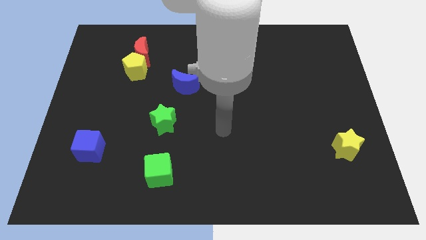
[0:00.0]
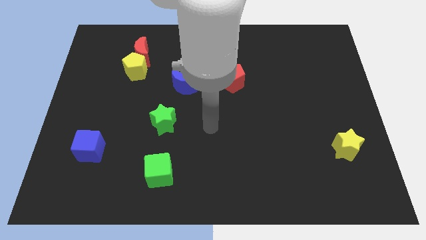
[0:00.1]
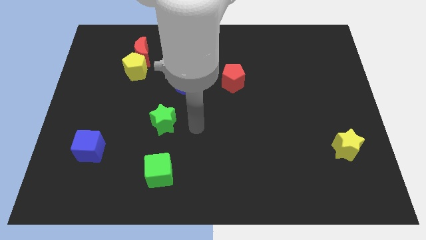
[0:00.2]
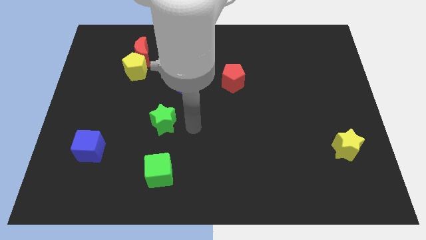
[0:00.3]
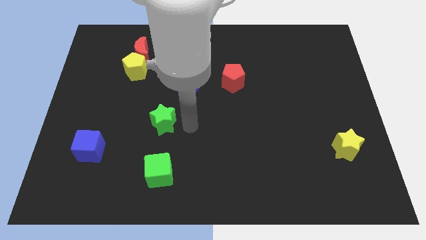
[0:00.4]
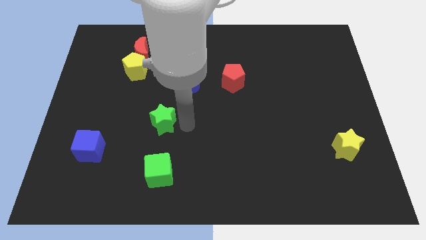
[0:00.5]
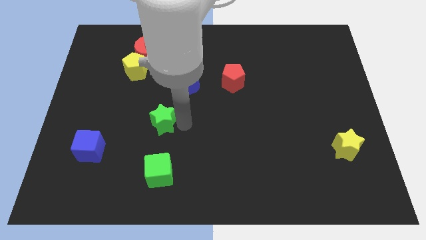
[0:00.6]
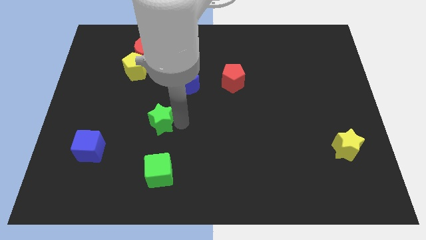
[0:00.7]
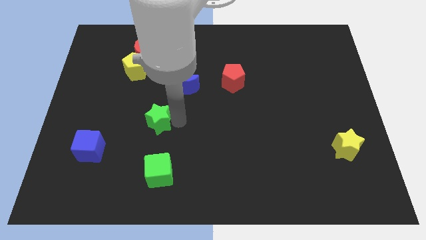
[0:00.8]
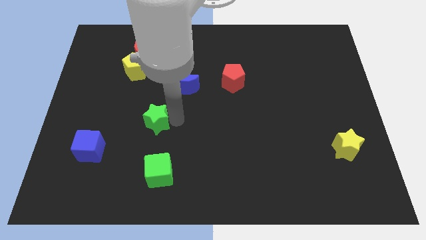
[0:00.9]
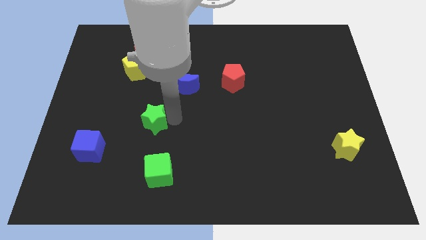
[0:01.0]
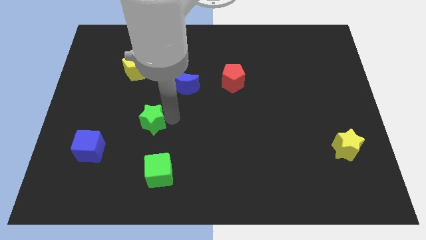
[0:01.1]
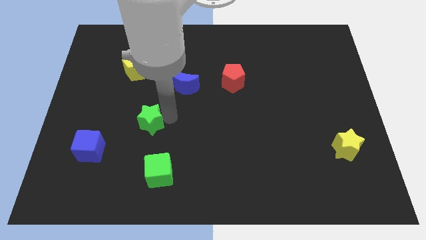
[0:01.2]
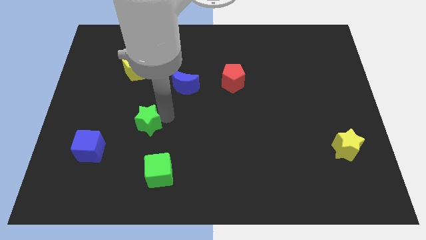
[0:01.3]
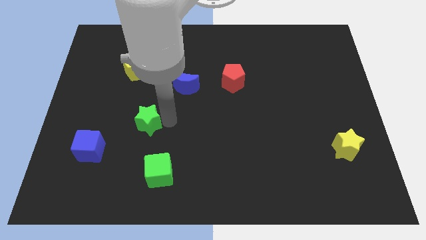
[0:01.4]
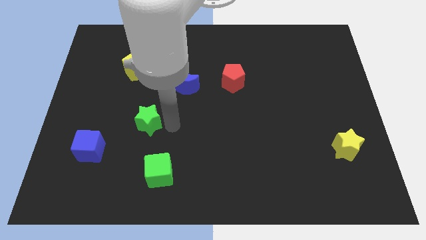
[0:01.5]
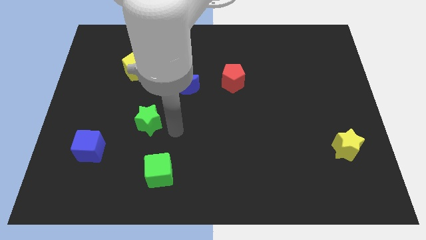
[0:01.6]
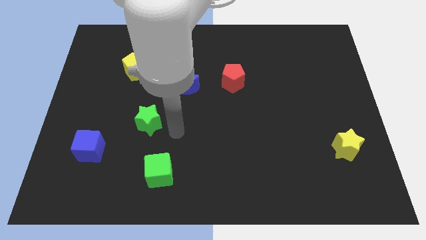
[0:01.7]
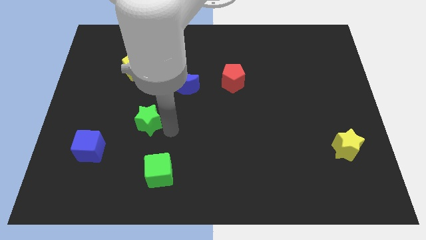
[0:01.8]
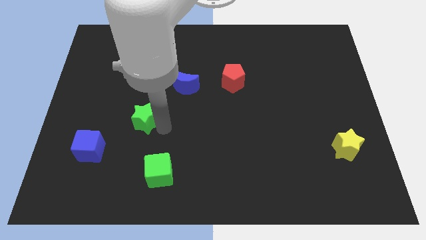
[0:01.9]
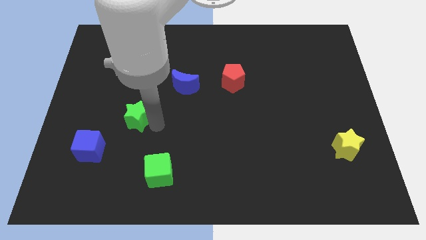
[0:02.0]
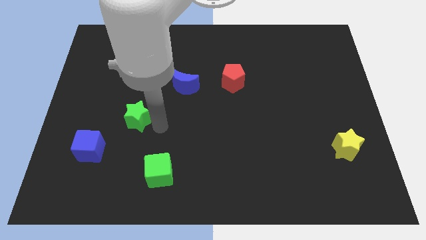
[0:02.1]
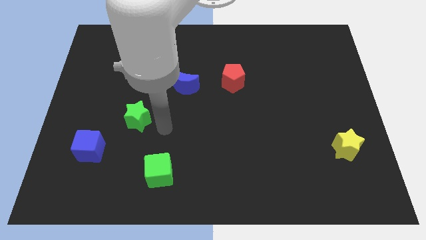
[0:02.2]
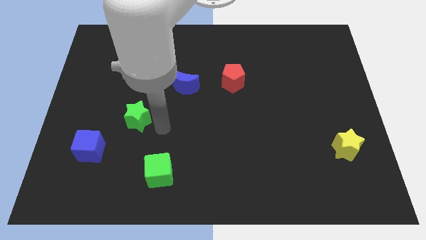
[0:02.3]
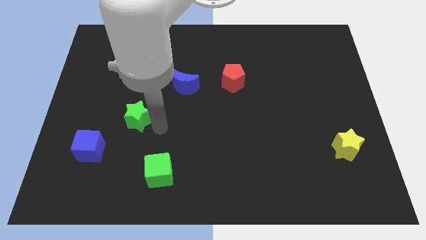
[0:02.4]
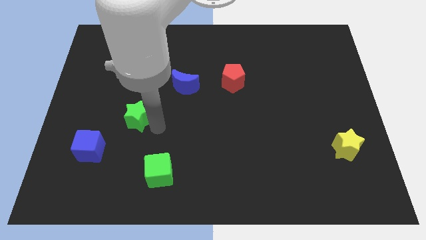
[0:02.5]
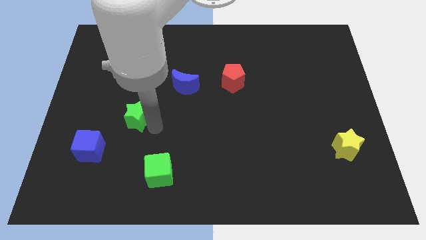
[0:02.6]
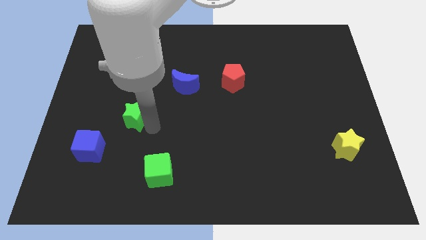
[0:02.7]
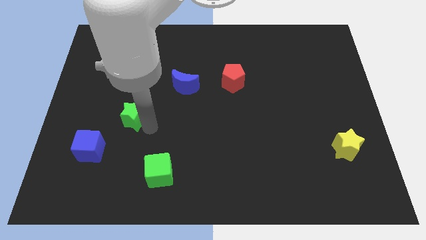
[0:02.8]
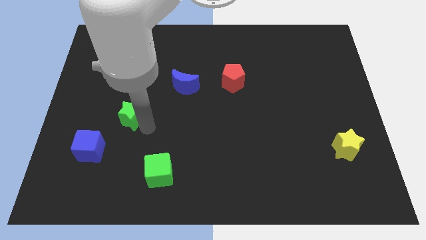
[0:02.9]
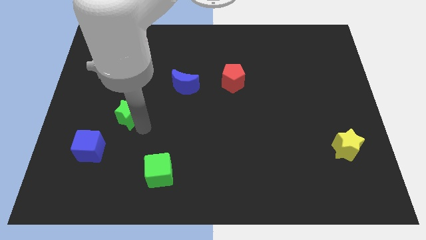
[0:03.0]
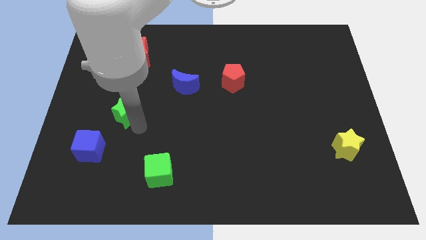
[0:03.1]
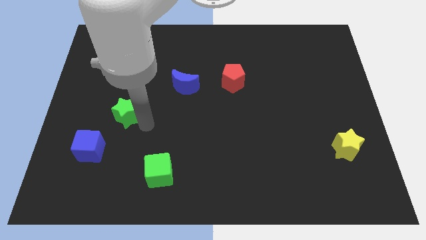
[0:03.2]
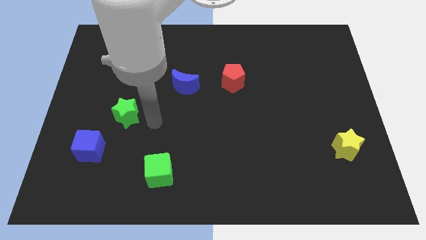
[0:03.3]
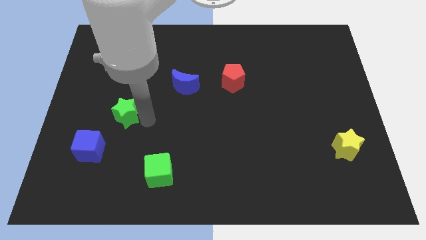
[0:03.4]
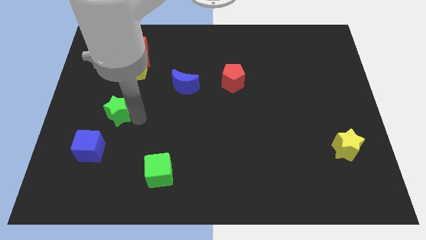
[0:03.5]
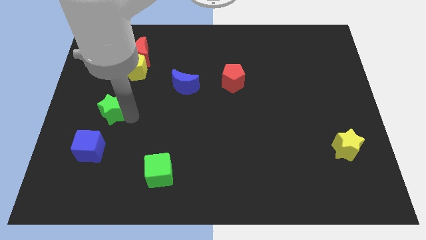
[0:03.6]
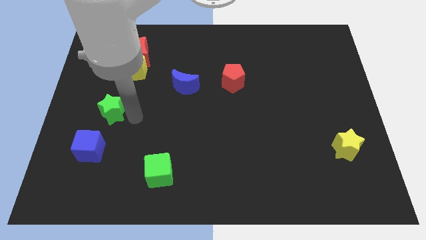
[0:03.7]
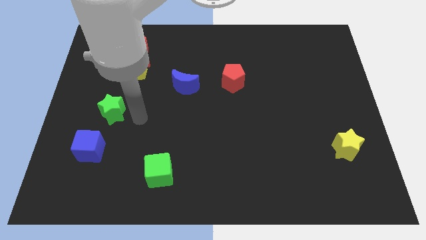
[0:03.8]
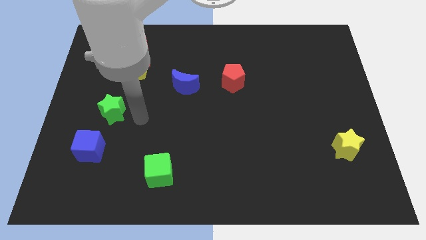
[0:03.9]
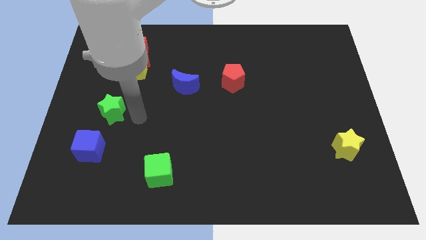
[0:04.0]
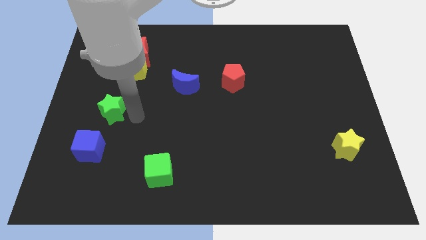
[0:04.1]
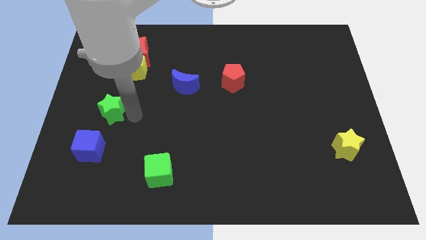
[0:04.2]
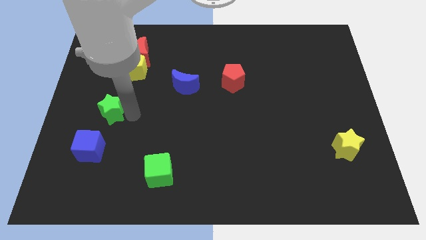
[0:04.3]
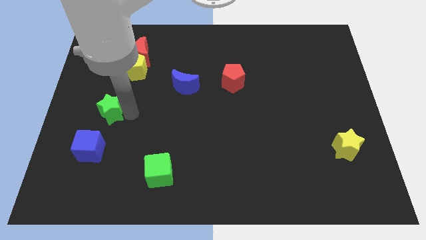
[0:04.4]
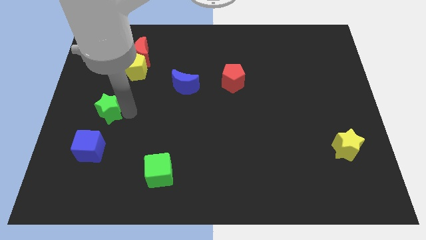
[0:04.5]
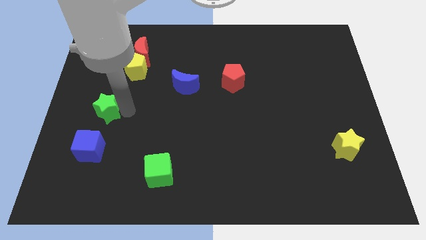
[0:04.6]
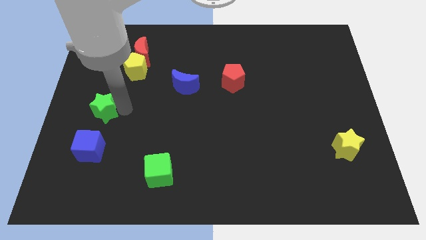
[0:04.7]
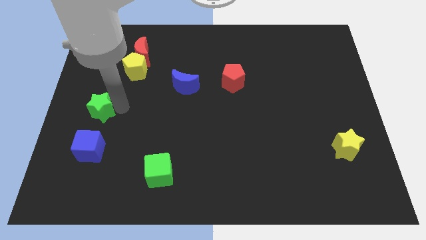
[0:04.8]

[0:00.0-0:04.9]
put the green star to the left side

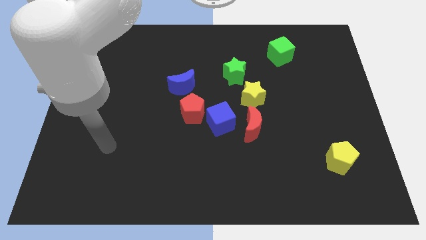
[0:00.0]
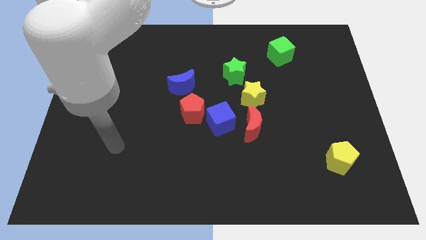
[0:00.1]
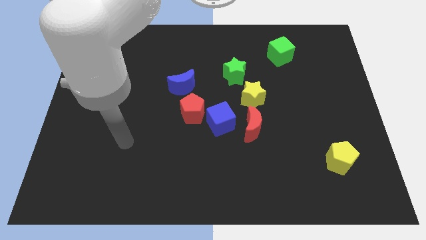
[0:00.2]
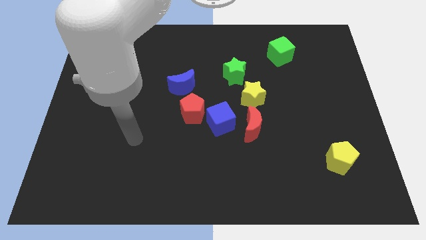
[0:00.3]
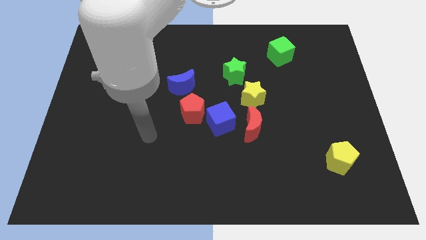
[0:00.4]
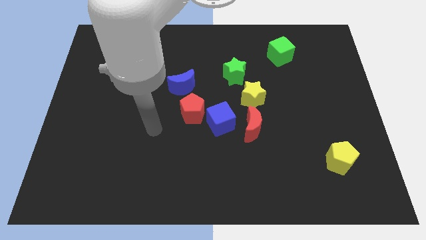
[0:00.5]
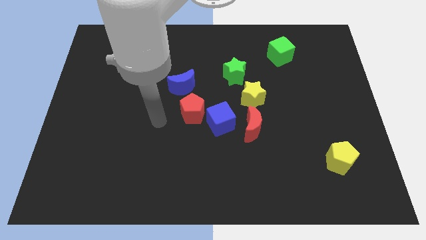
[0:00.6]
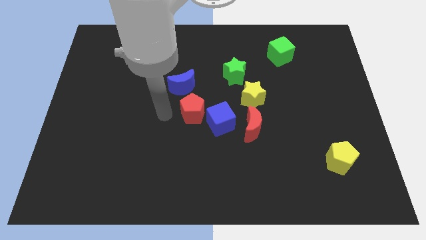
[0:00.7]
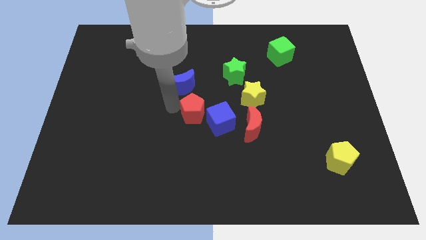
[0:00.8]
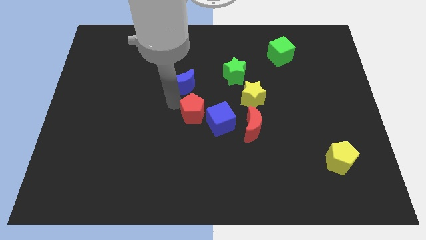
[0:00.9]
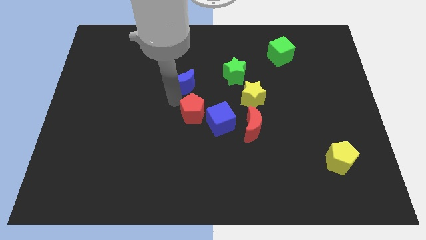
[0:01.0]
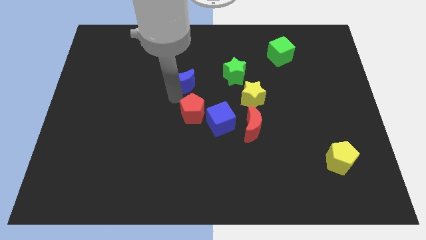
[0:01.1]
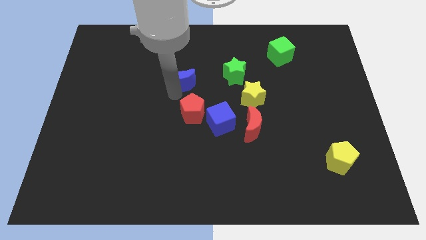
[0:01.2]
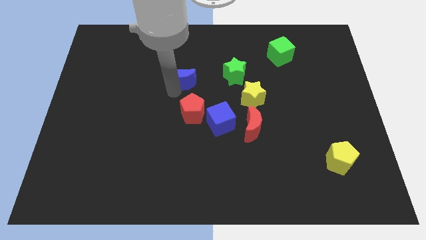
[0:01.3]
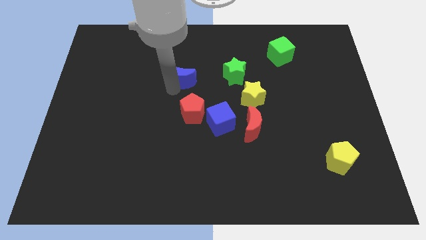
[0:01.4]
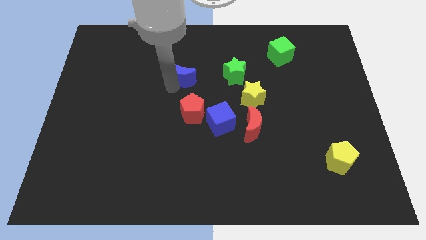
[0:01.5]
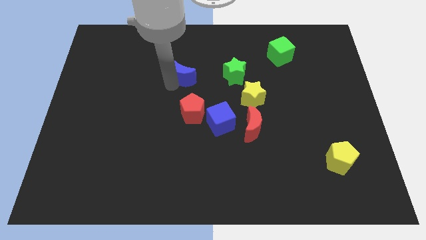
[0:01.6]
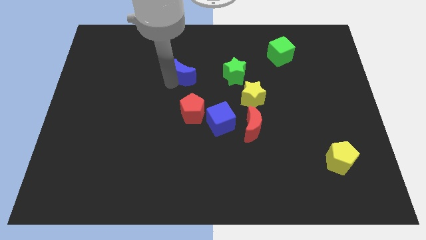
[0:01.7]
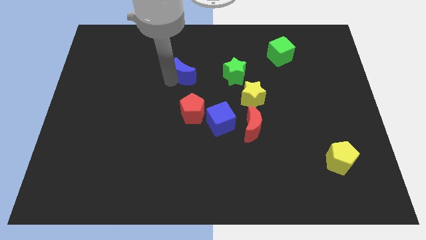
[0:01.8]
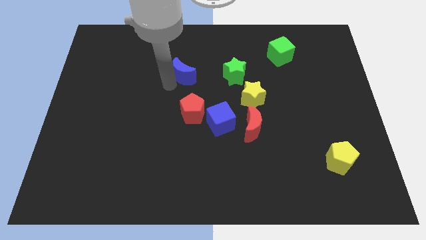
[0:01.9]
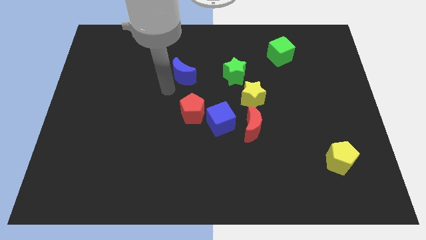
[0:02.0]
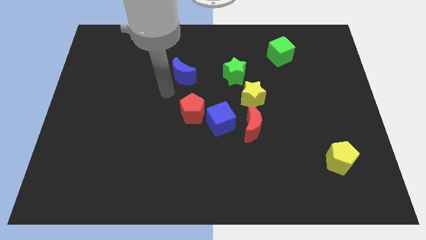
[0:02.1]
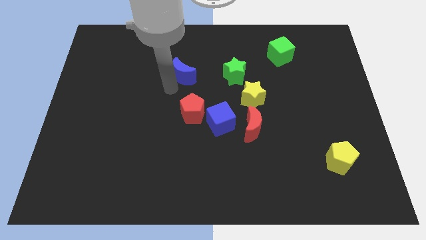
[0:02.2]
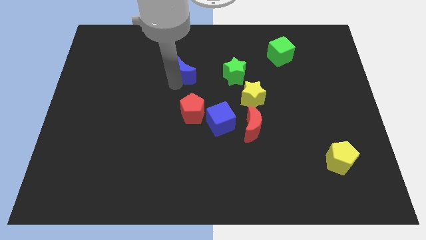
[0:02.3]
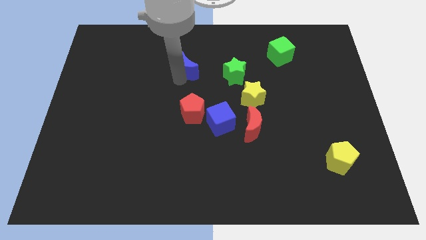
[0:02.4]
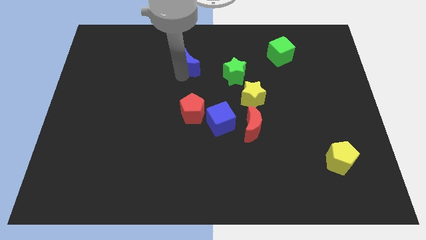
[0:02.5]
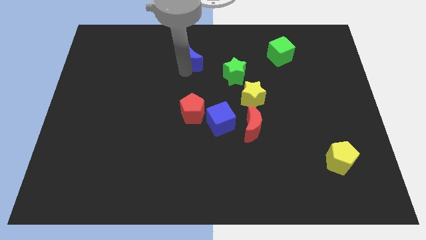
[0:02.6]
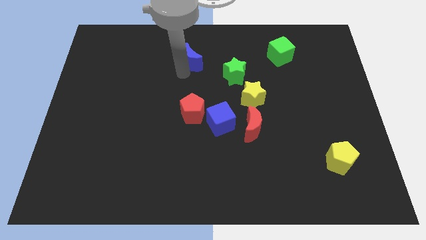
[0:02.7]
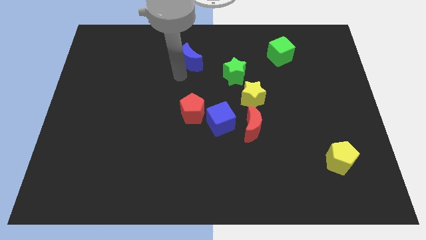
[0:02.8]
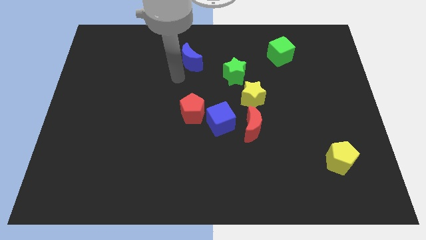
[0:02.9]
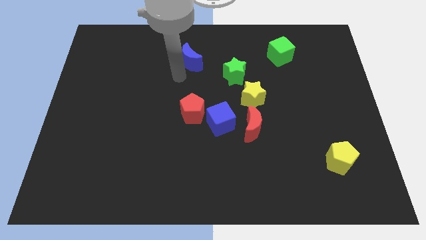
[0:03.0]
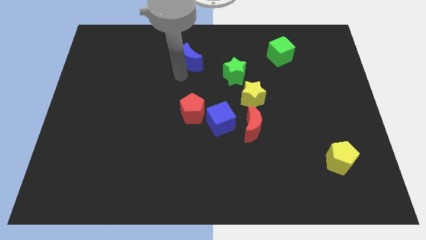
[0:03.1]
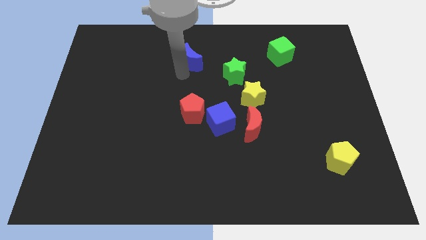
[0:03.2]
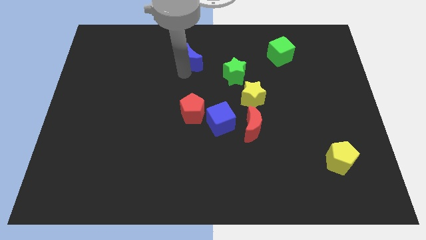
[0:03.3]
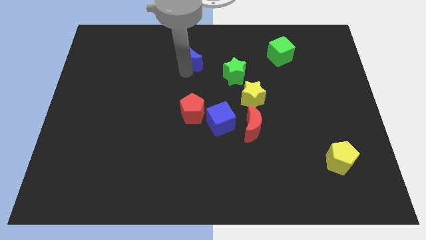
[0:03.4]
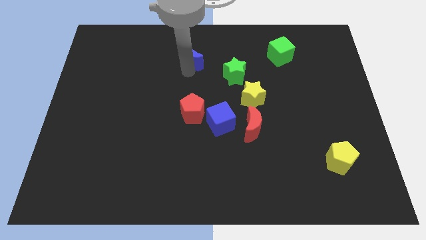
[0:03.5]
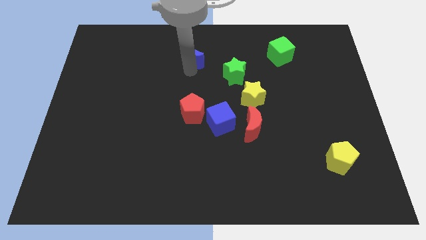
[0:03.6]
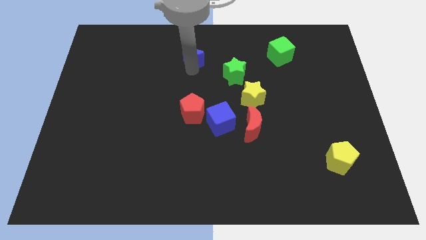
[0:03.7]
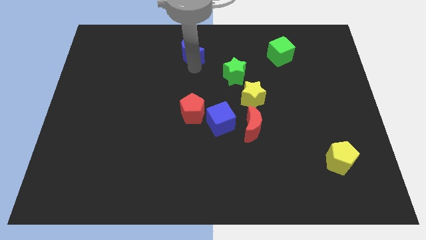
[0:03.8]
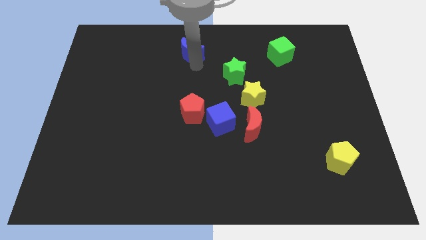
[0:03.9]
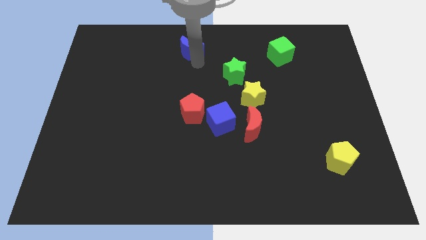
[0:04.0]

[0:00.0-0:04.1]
push the blue moon to the towards your base
